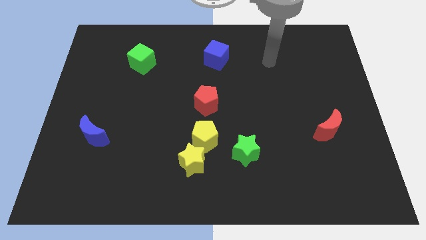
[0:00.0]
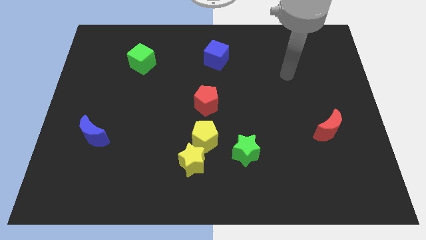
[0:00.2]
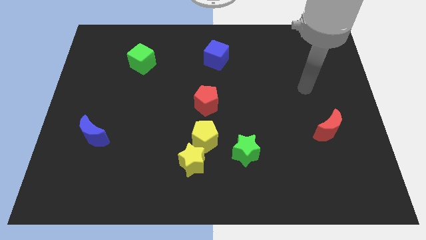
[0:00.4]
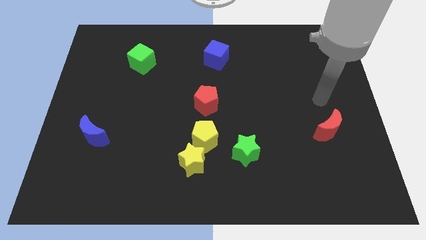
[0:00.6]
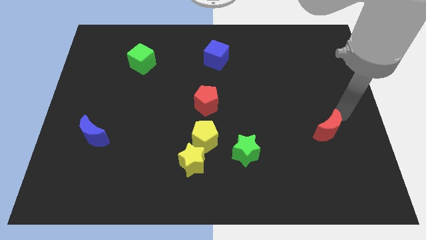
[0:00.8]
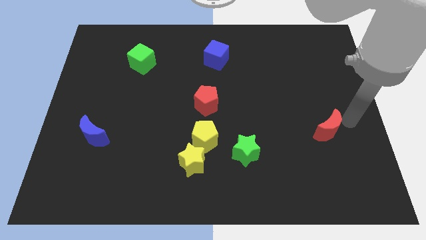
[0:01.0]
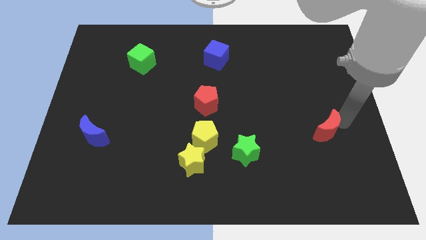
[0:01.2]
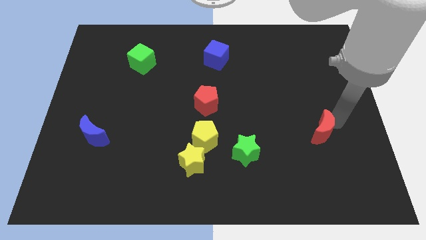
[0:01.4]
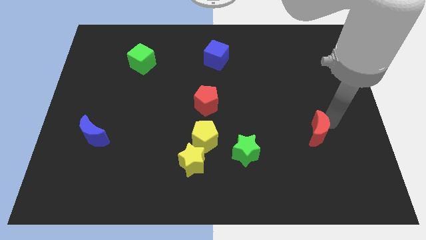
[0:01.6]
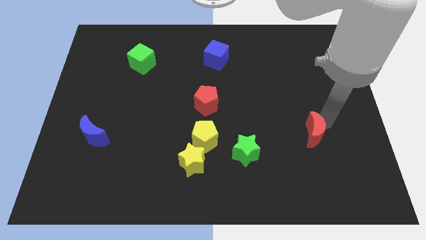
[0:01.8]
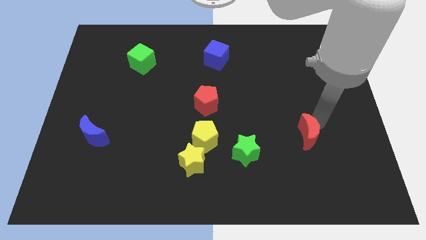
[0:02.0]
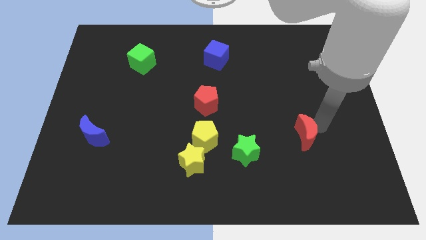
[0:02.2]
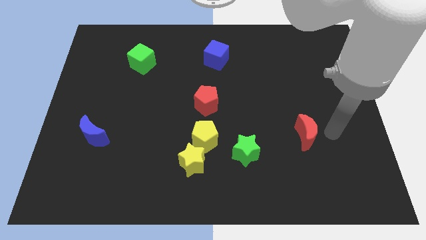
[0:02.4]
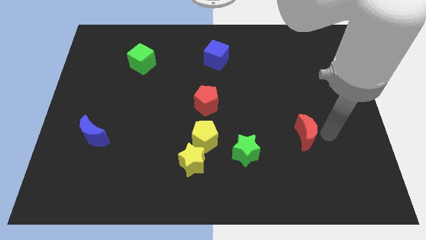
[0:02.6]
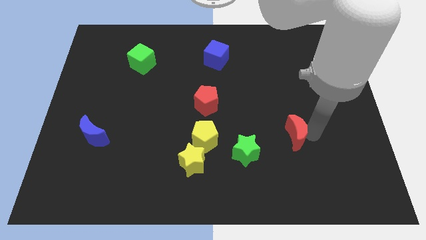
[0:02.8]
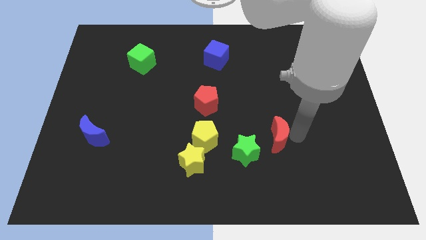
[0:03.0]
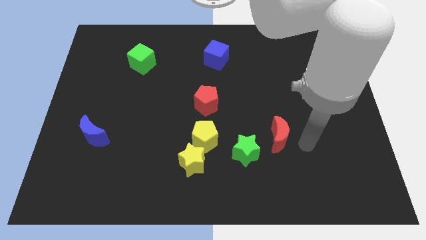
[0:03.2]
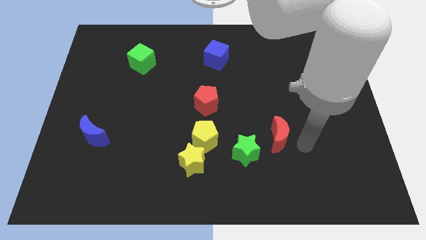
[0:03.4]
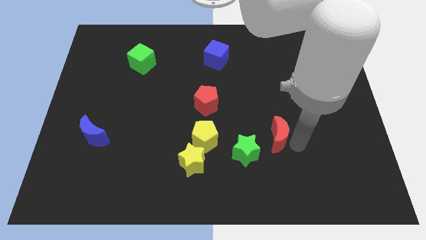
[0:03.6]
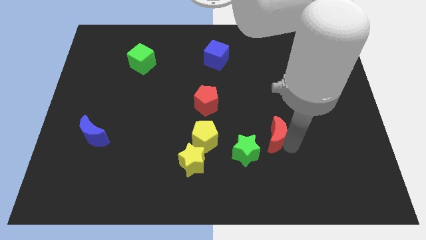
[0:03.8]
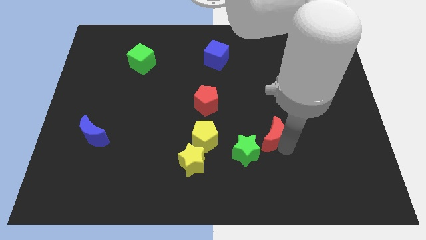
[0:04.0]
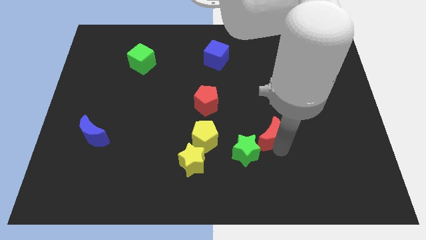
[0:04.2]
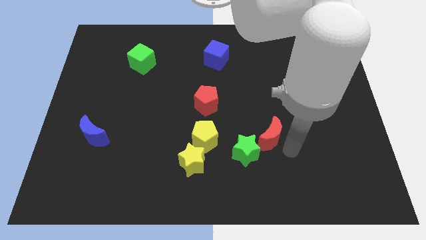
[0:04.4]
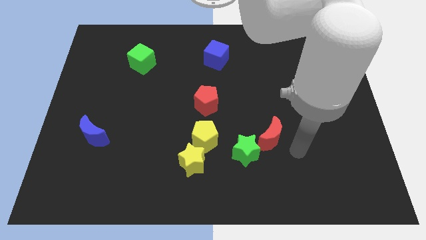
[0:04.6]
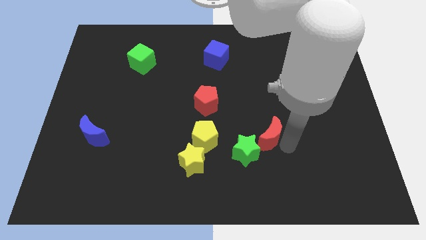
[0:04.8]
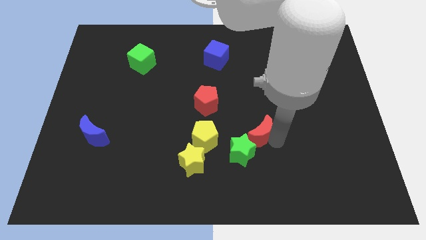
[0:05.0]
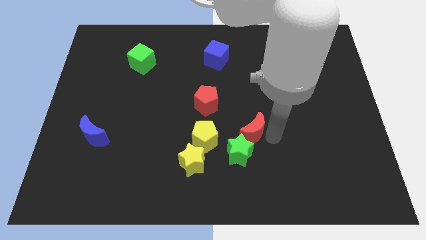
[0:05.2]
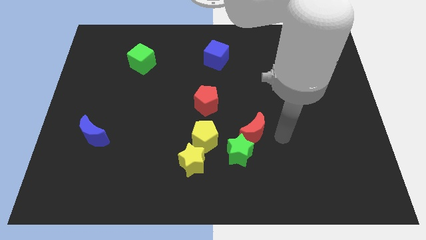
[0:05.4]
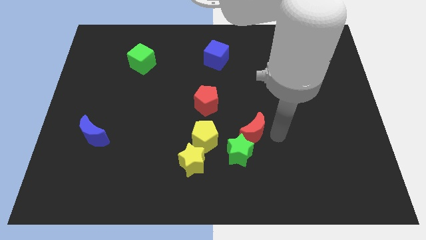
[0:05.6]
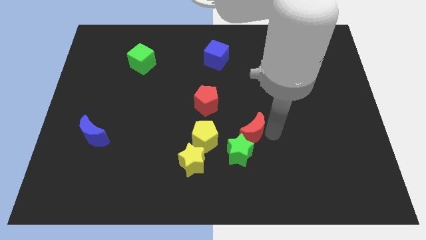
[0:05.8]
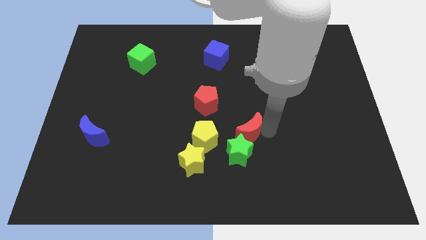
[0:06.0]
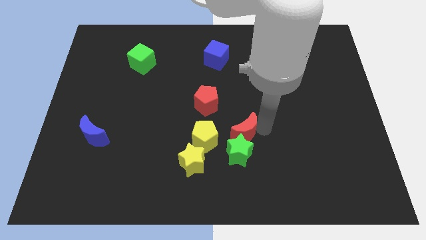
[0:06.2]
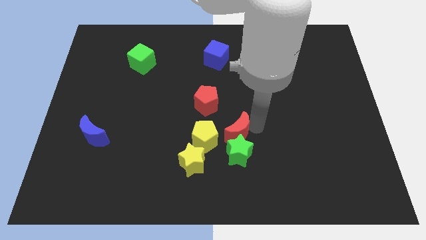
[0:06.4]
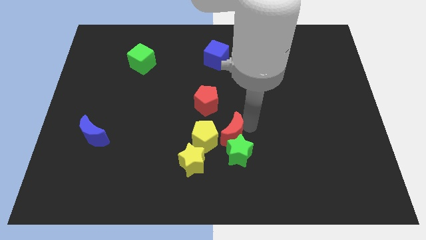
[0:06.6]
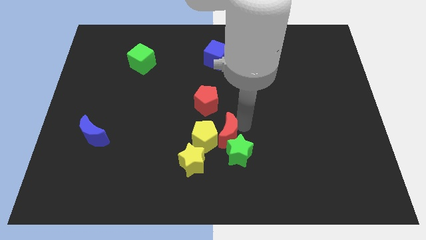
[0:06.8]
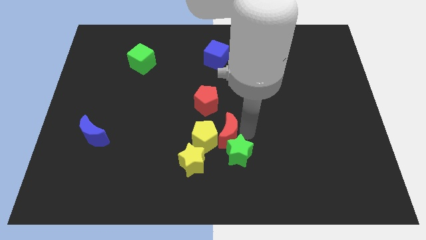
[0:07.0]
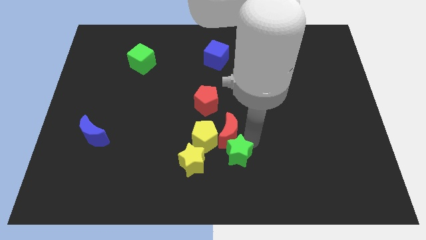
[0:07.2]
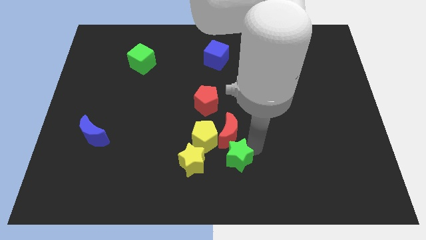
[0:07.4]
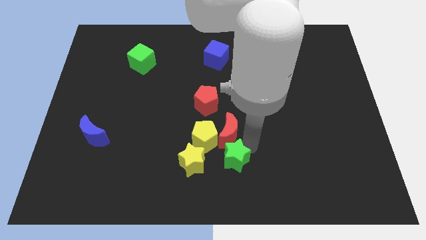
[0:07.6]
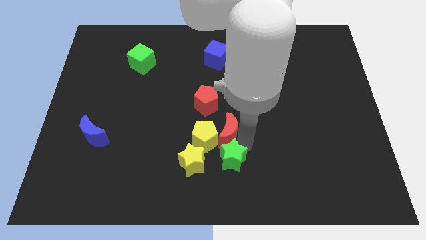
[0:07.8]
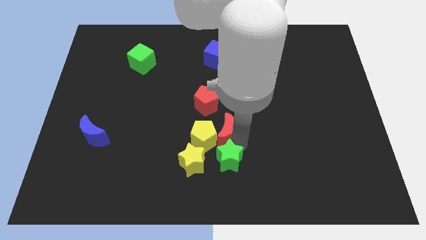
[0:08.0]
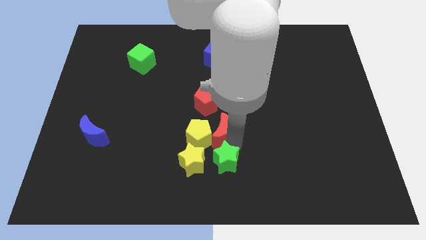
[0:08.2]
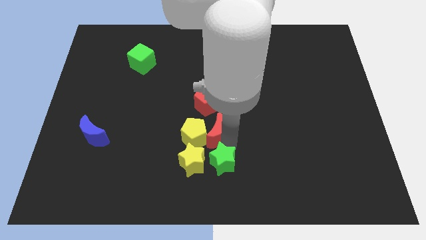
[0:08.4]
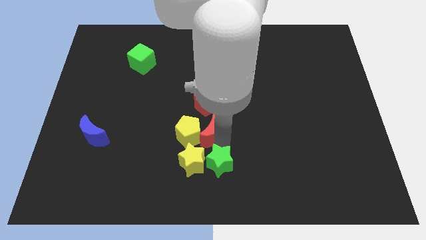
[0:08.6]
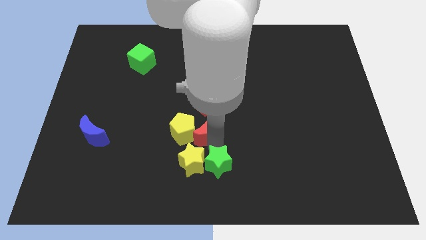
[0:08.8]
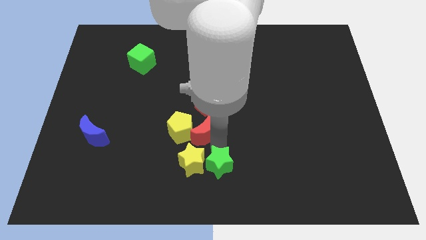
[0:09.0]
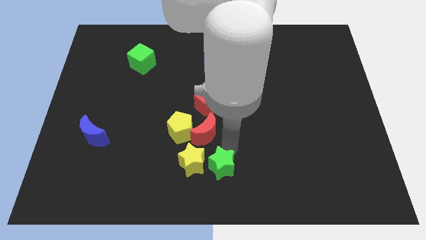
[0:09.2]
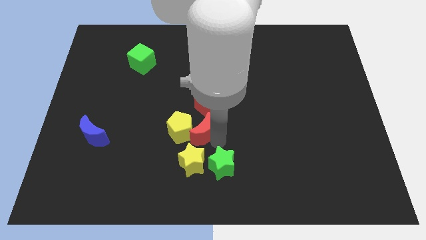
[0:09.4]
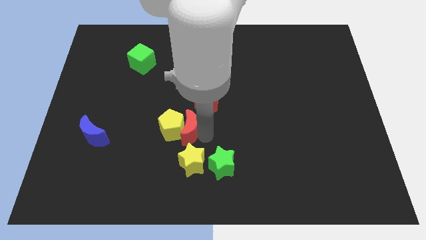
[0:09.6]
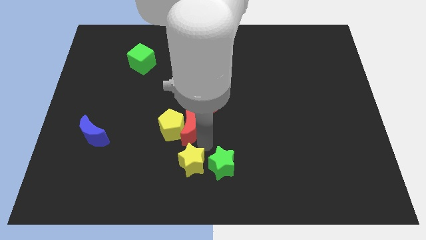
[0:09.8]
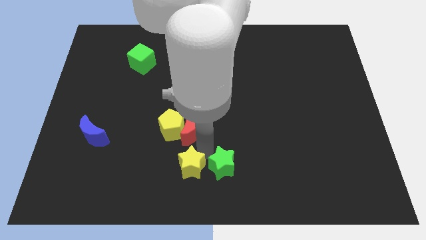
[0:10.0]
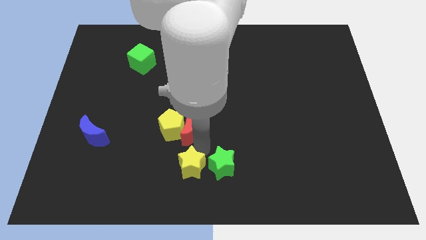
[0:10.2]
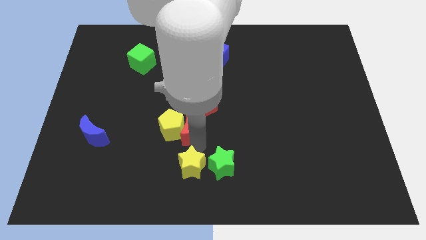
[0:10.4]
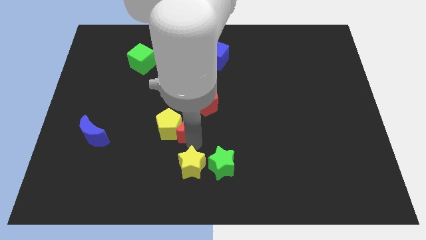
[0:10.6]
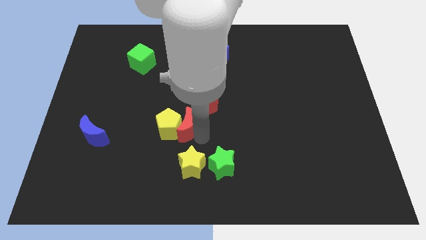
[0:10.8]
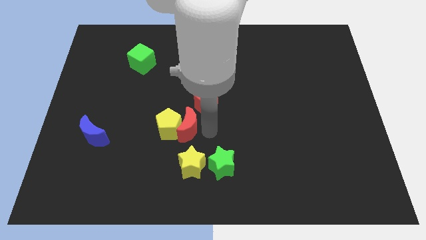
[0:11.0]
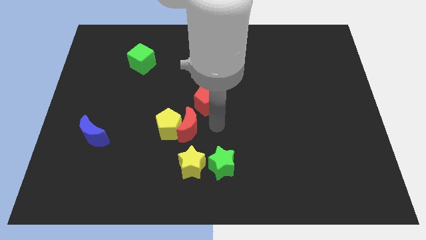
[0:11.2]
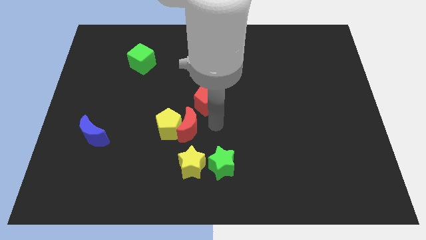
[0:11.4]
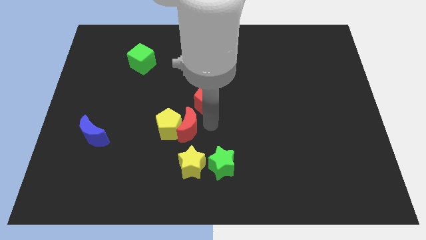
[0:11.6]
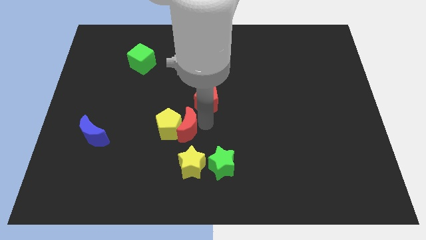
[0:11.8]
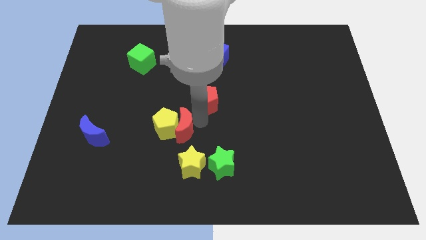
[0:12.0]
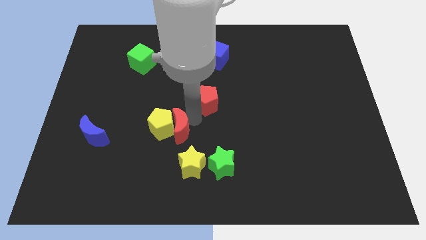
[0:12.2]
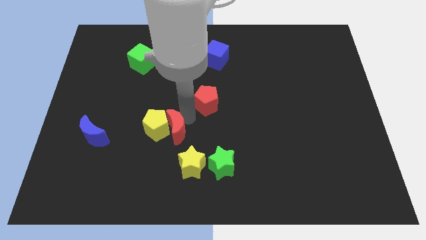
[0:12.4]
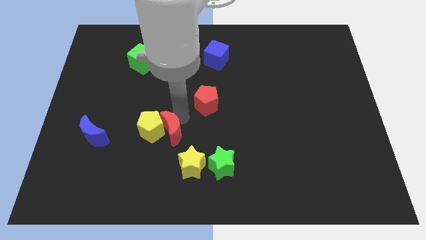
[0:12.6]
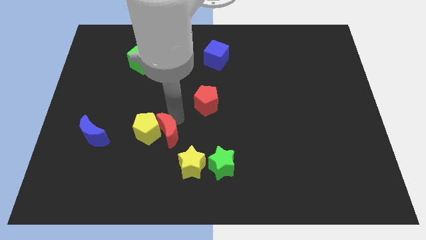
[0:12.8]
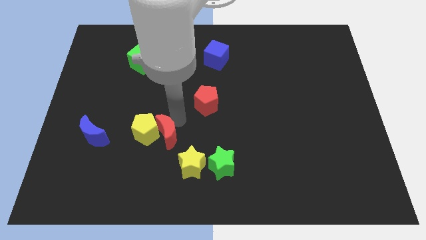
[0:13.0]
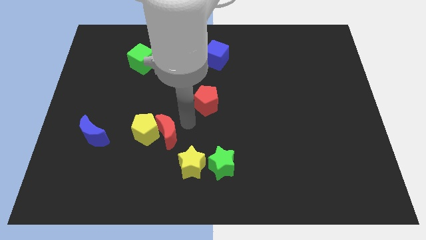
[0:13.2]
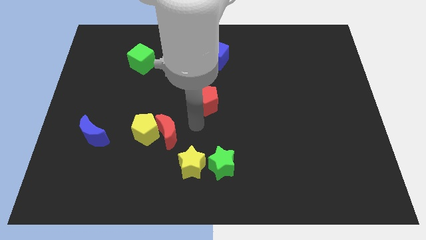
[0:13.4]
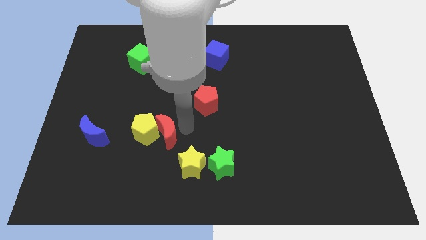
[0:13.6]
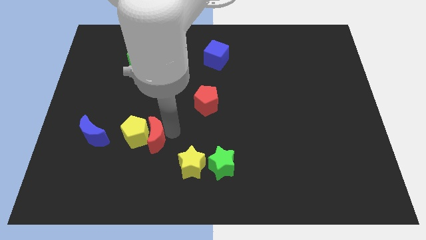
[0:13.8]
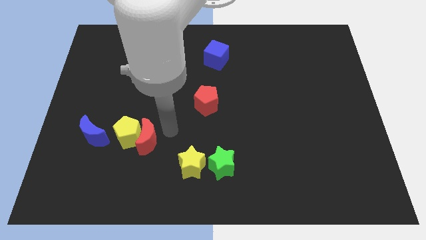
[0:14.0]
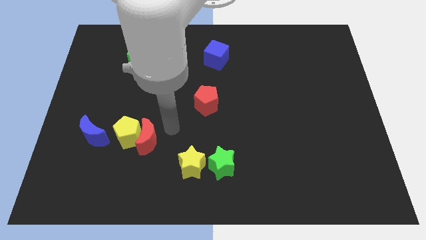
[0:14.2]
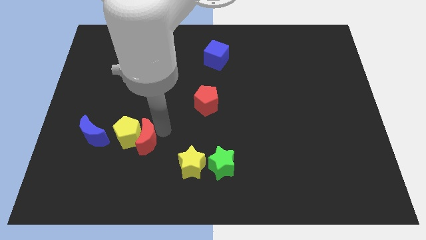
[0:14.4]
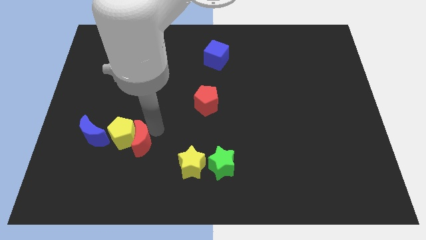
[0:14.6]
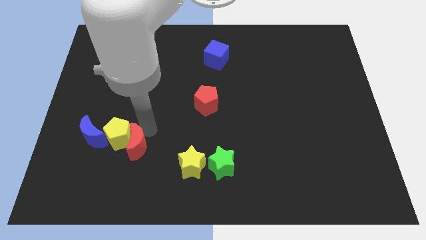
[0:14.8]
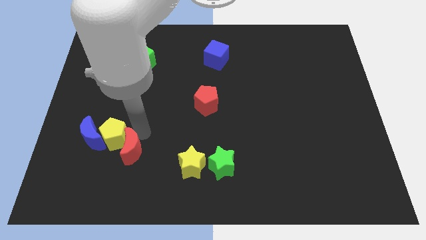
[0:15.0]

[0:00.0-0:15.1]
put the red moon to the bottom right side of the blue moon
